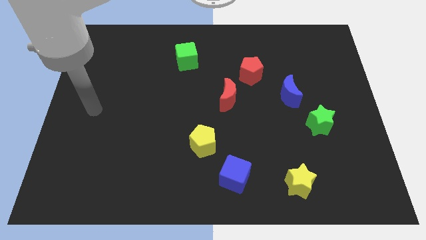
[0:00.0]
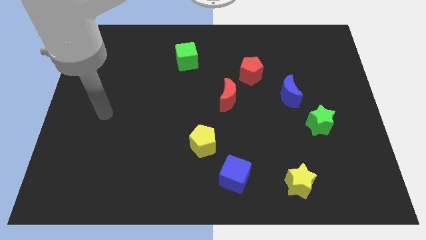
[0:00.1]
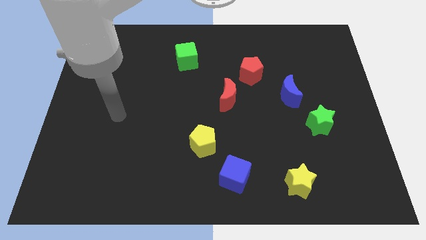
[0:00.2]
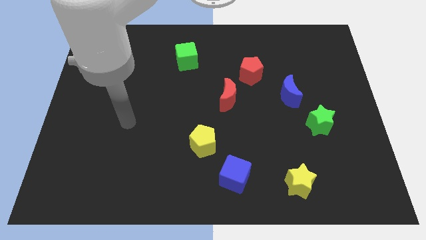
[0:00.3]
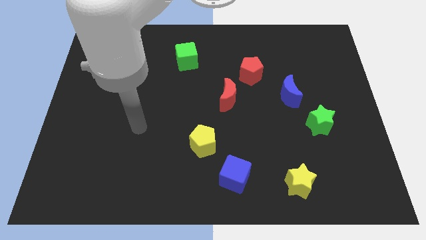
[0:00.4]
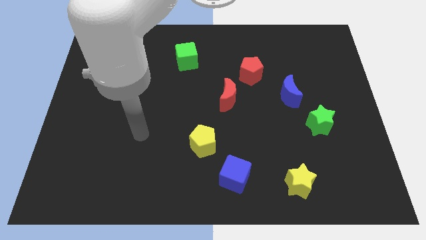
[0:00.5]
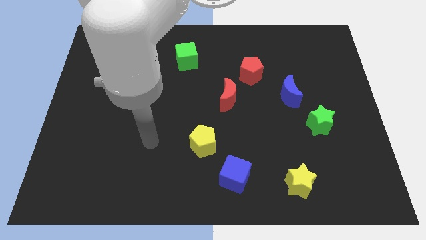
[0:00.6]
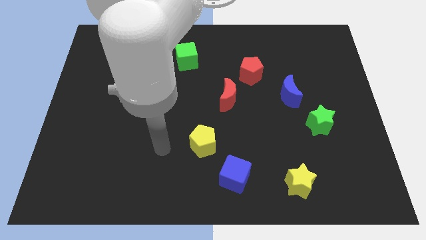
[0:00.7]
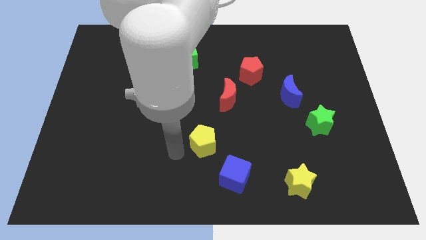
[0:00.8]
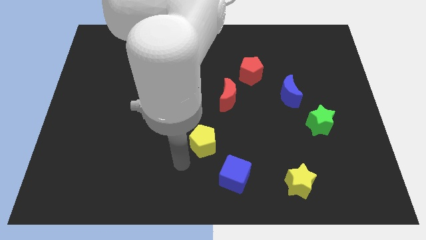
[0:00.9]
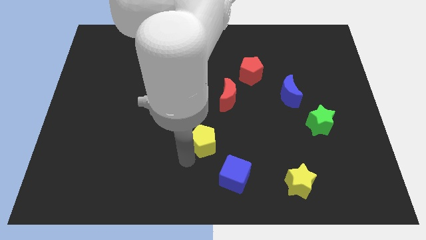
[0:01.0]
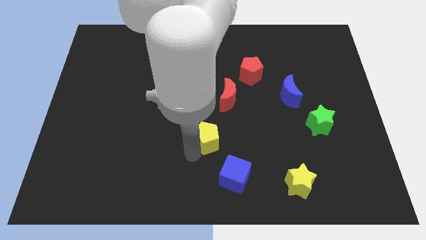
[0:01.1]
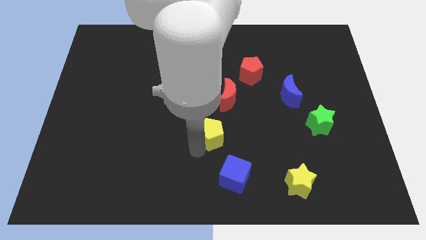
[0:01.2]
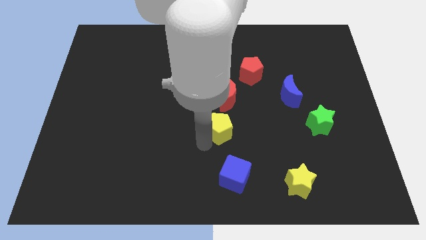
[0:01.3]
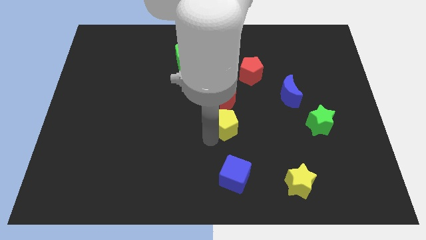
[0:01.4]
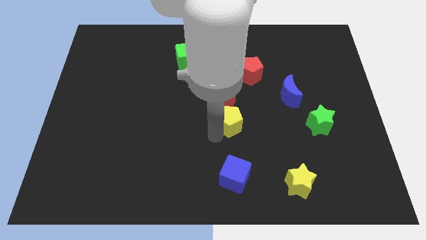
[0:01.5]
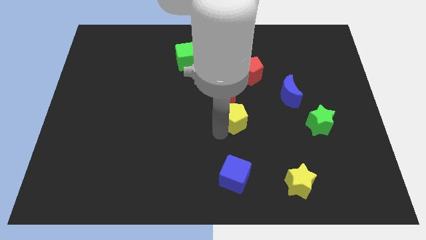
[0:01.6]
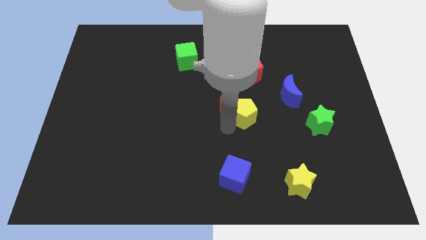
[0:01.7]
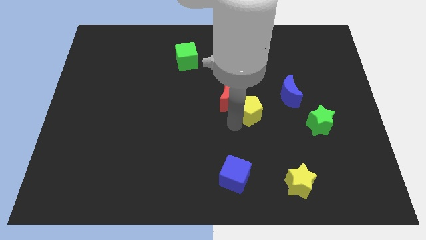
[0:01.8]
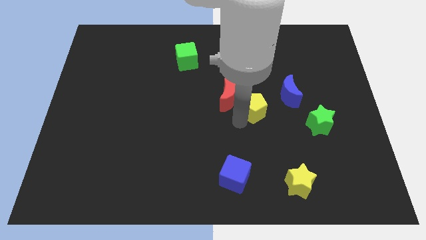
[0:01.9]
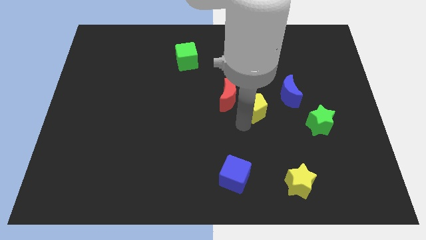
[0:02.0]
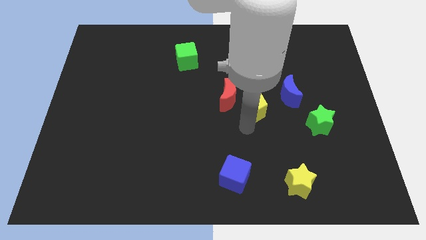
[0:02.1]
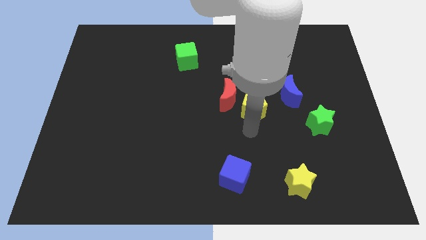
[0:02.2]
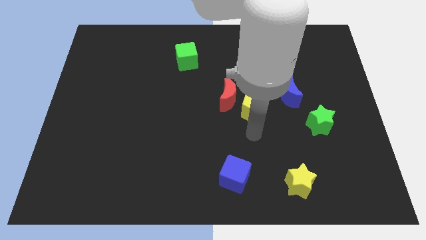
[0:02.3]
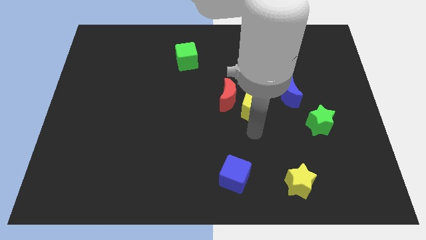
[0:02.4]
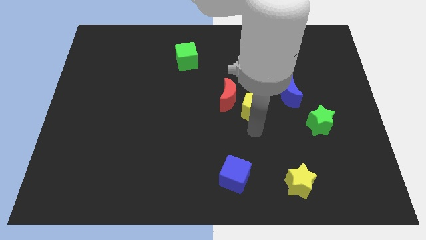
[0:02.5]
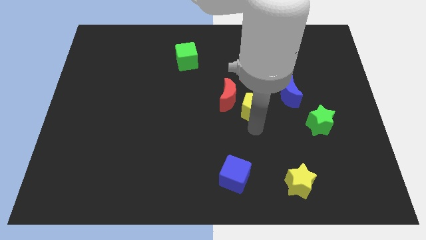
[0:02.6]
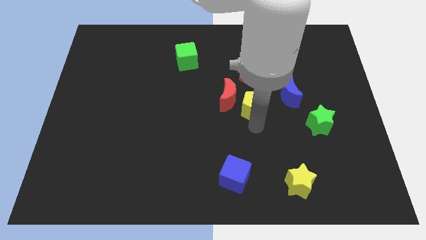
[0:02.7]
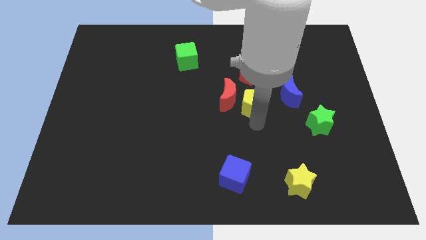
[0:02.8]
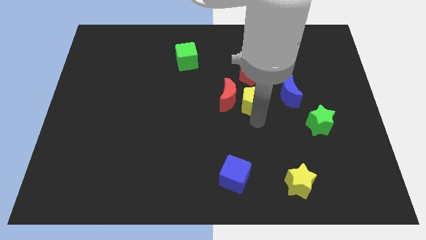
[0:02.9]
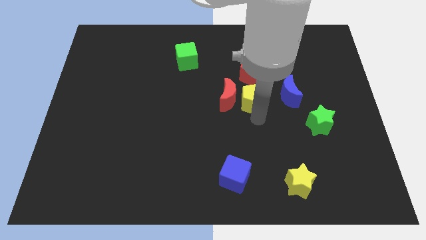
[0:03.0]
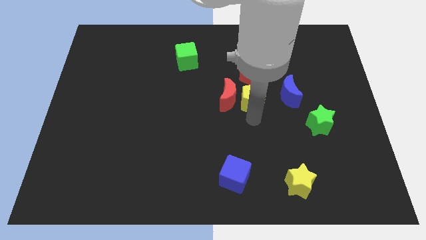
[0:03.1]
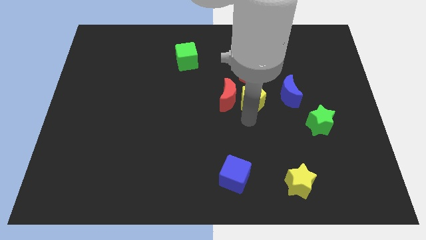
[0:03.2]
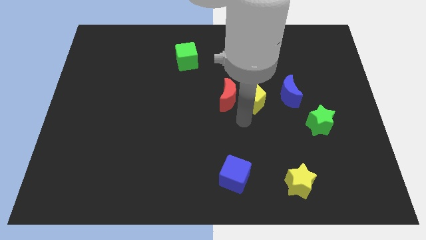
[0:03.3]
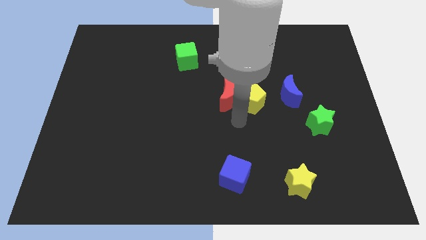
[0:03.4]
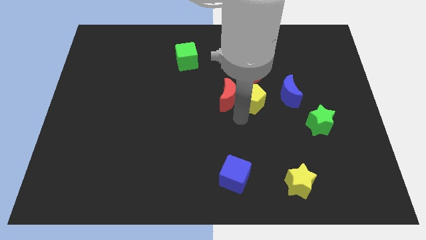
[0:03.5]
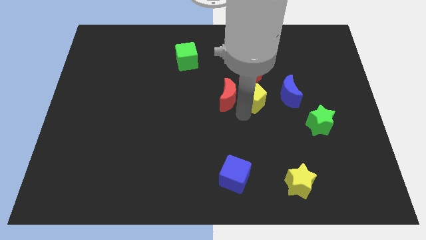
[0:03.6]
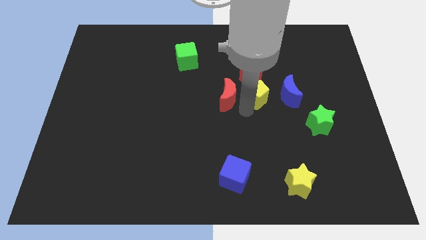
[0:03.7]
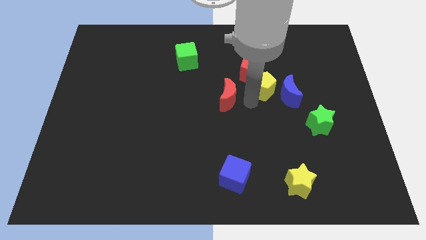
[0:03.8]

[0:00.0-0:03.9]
push the yellow pentagon up and to the right

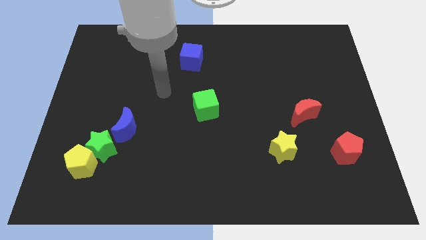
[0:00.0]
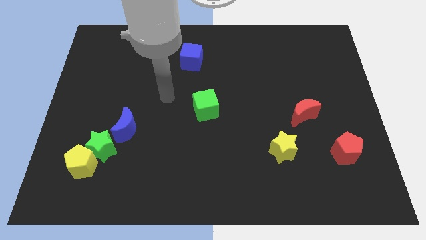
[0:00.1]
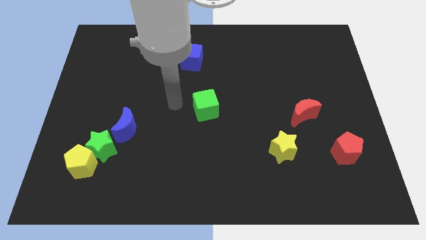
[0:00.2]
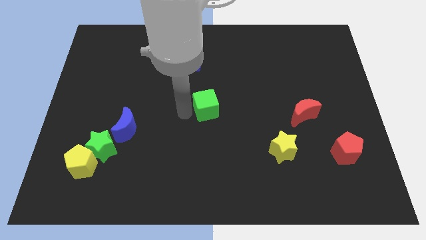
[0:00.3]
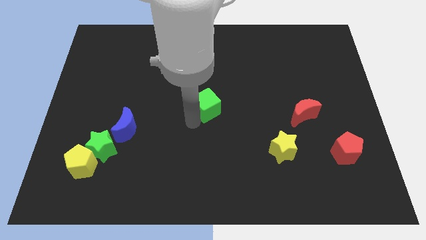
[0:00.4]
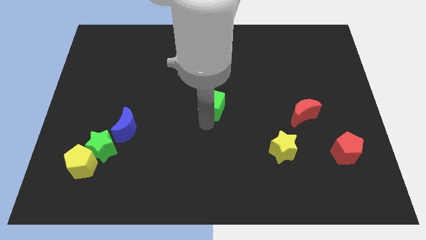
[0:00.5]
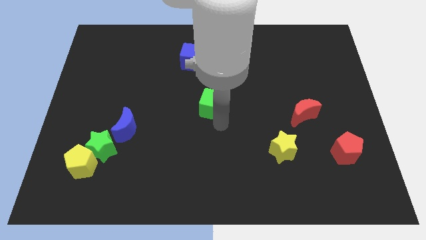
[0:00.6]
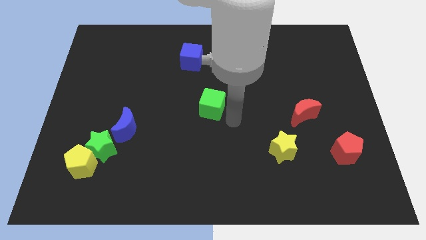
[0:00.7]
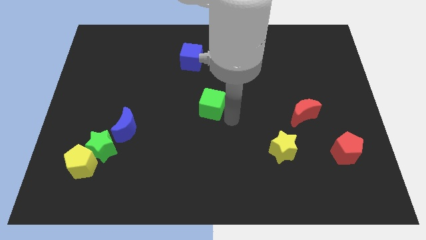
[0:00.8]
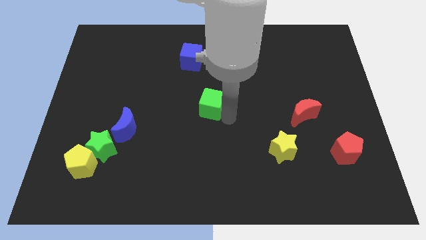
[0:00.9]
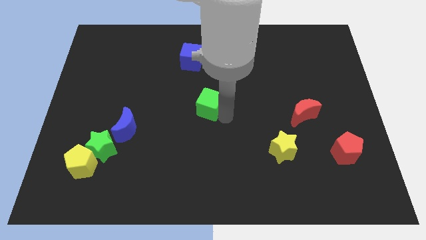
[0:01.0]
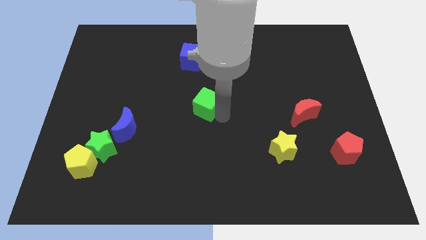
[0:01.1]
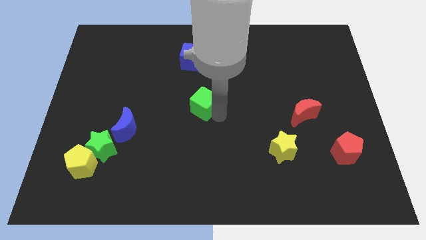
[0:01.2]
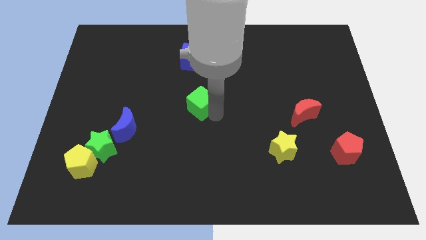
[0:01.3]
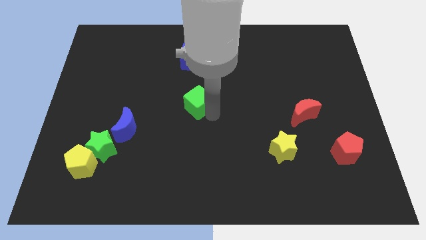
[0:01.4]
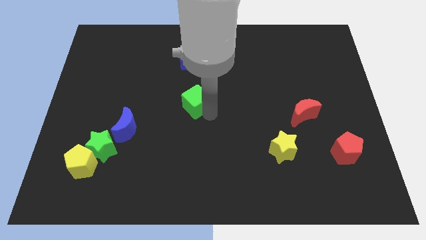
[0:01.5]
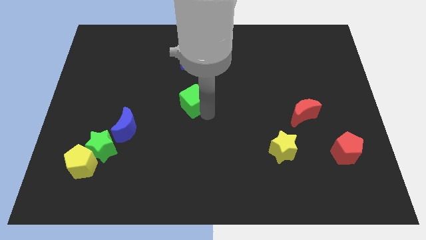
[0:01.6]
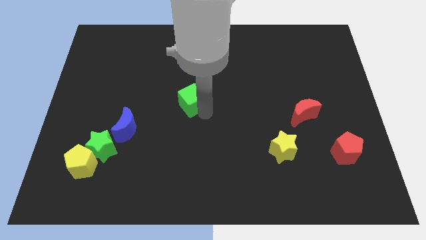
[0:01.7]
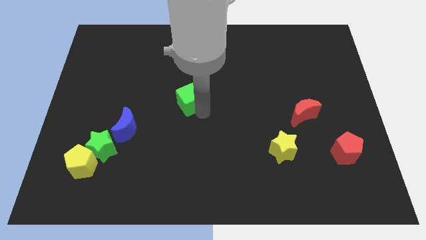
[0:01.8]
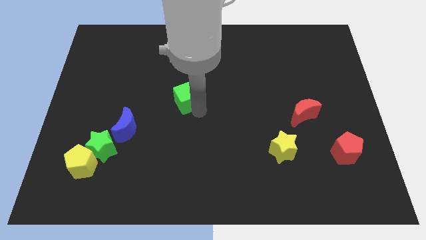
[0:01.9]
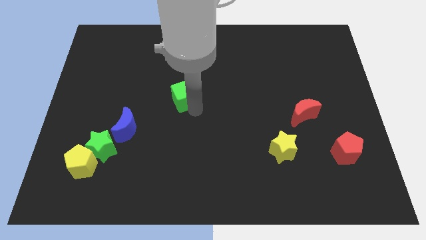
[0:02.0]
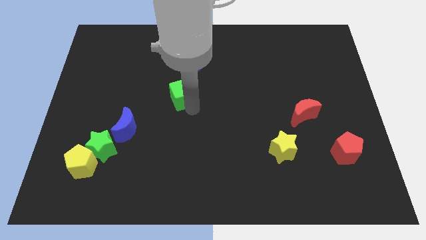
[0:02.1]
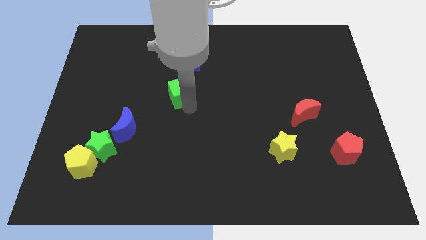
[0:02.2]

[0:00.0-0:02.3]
slightly push the green cube diagonally upwards and to the left

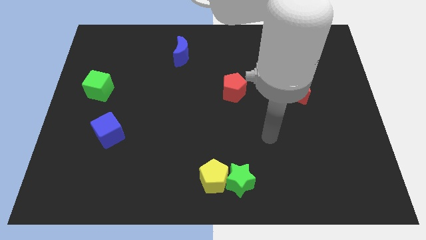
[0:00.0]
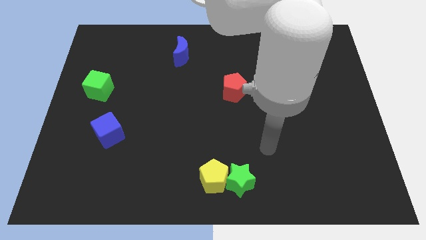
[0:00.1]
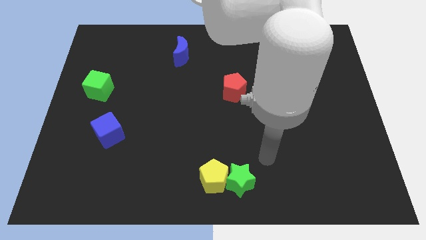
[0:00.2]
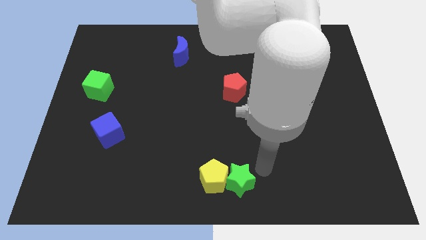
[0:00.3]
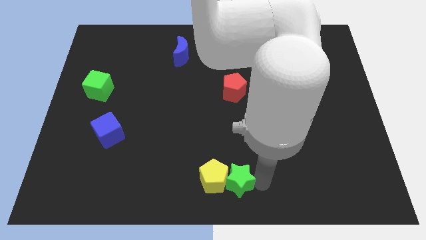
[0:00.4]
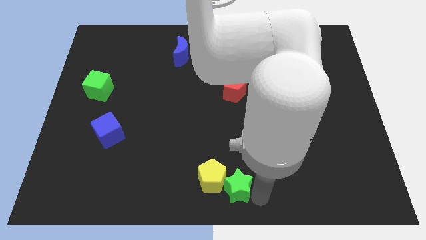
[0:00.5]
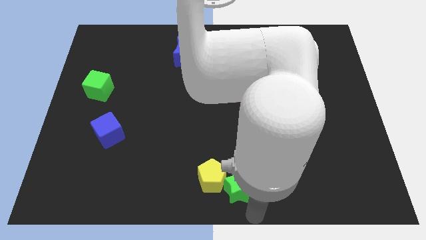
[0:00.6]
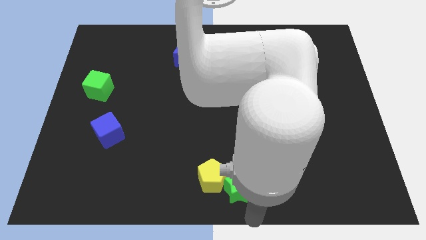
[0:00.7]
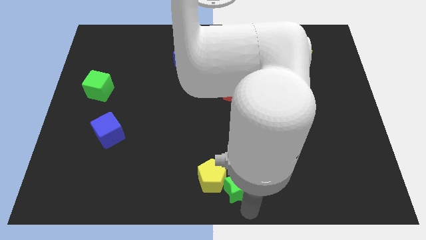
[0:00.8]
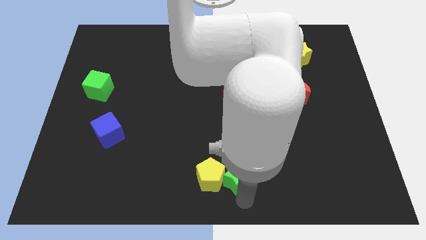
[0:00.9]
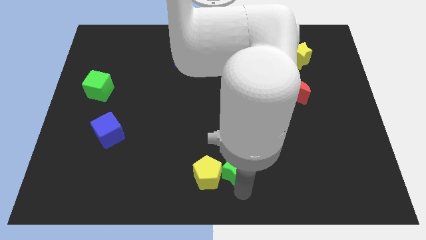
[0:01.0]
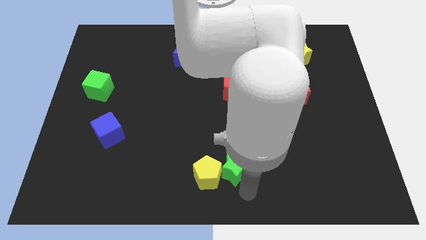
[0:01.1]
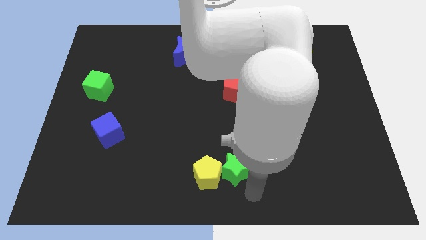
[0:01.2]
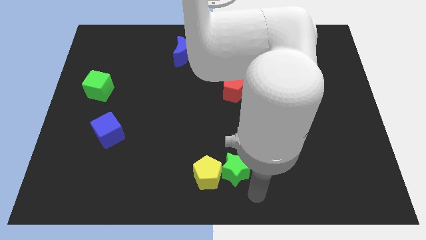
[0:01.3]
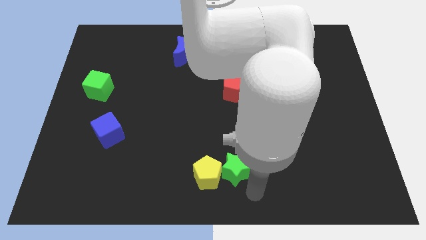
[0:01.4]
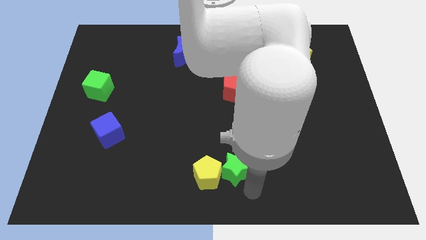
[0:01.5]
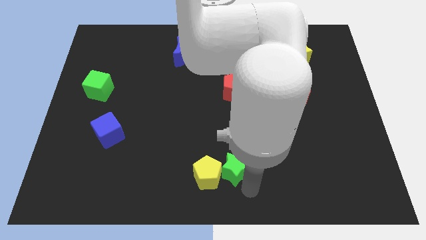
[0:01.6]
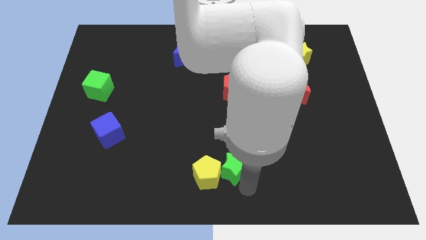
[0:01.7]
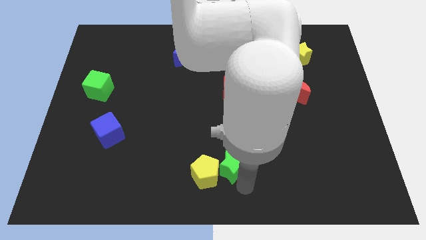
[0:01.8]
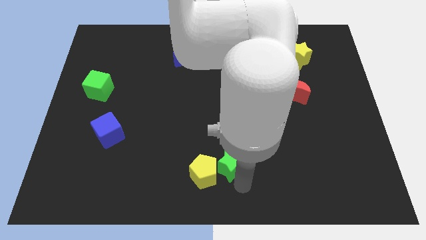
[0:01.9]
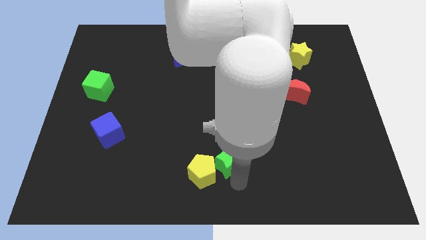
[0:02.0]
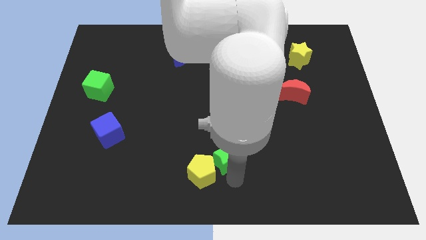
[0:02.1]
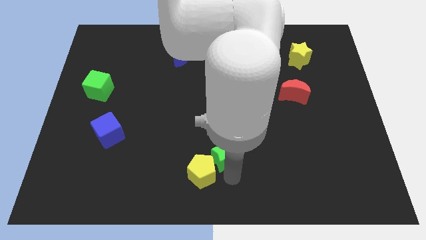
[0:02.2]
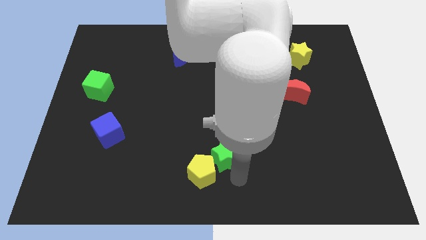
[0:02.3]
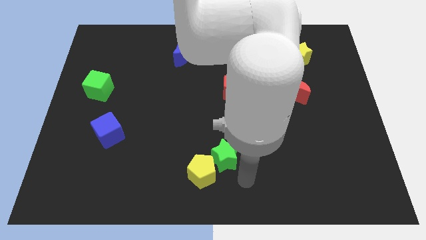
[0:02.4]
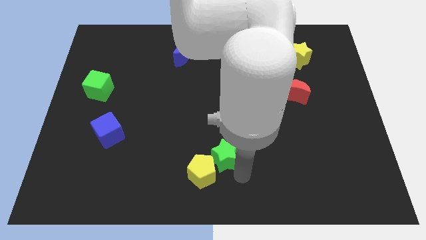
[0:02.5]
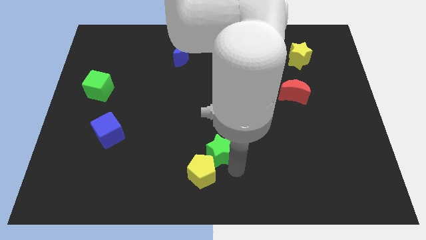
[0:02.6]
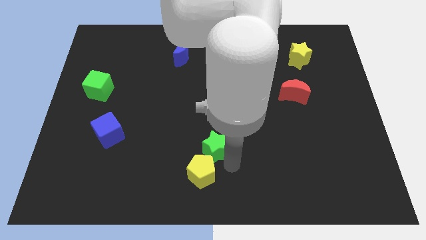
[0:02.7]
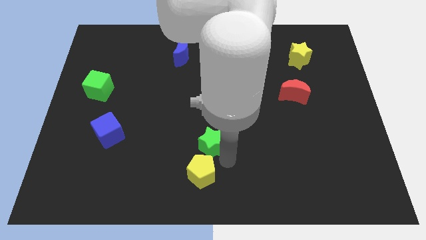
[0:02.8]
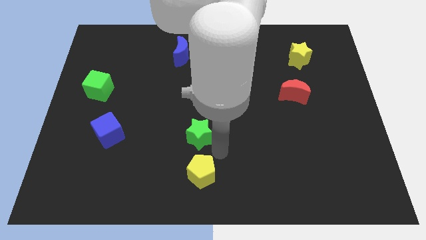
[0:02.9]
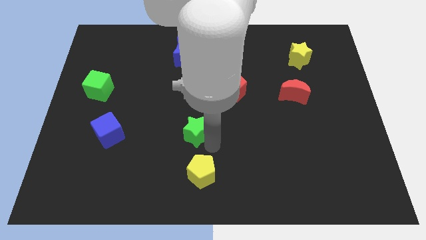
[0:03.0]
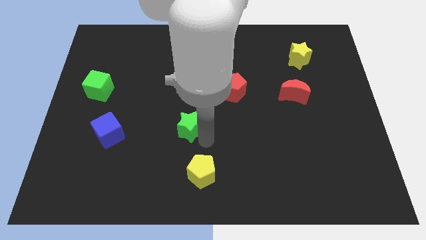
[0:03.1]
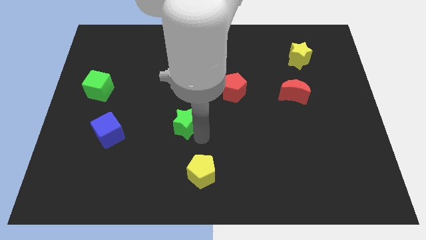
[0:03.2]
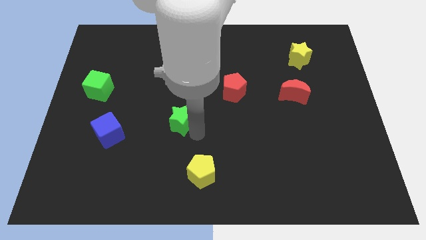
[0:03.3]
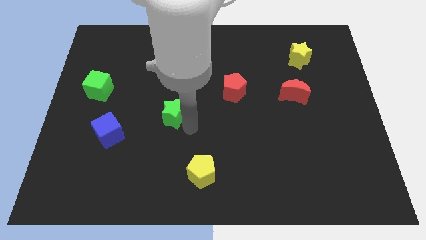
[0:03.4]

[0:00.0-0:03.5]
slide the green star upwards and left
